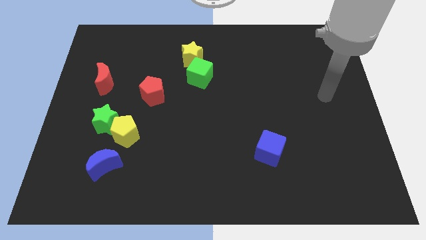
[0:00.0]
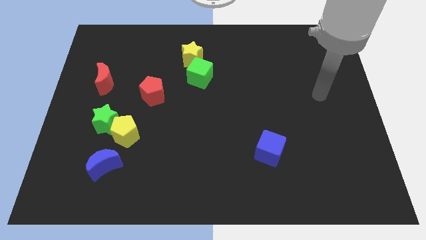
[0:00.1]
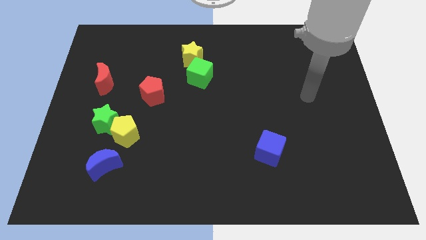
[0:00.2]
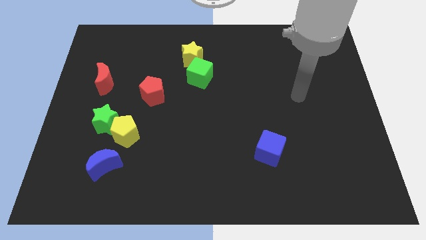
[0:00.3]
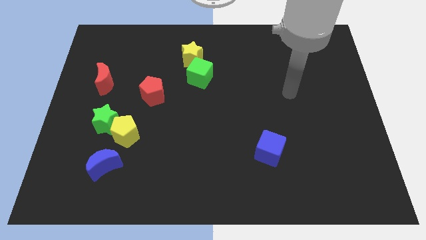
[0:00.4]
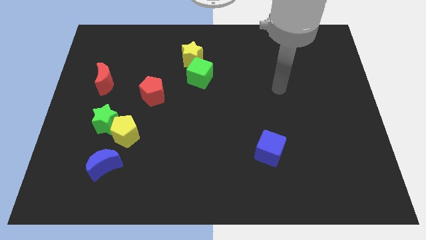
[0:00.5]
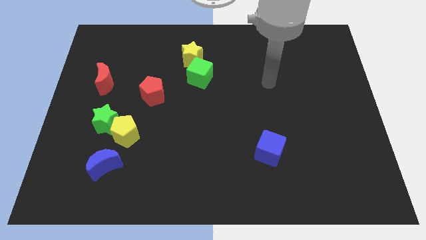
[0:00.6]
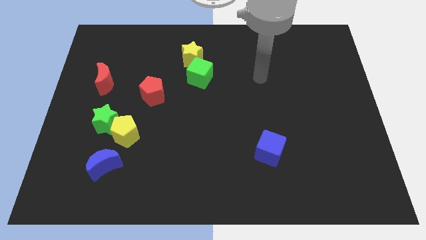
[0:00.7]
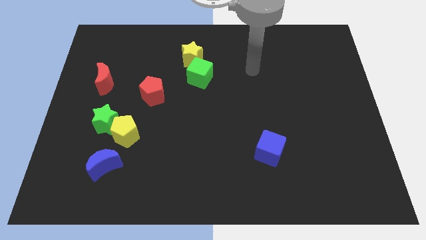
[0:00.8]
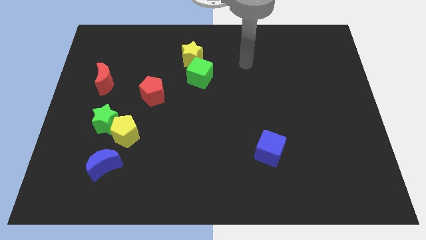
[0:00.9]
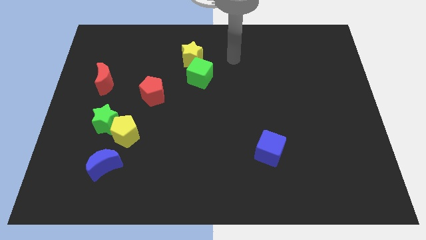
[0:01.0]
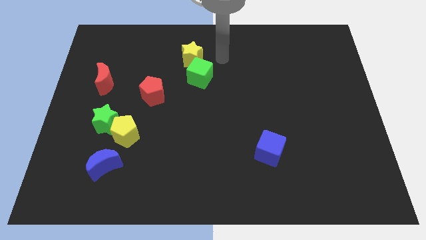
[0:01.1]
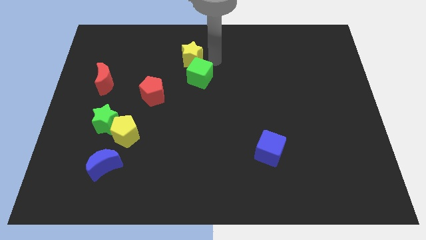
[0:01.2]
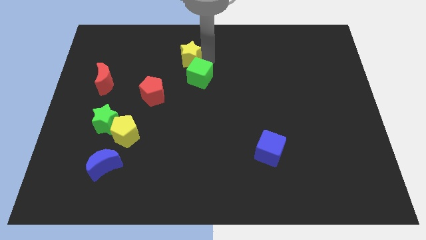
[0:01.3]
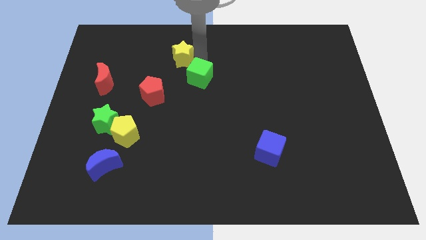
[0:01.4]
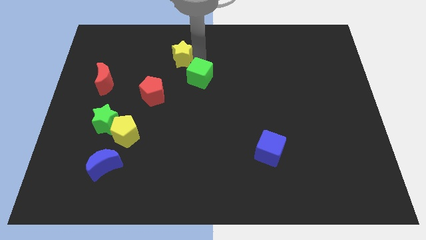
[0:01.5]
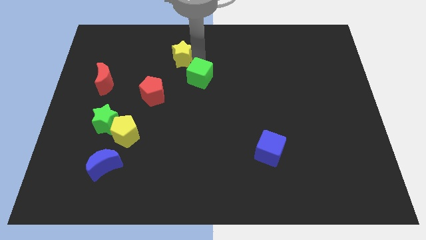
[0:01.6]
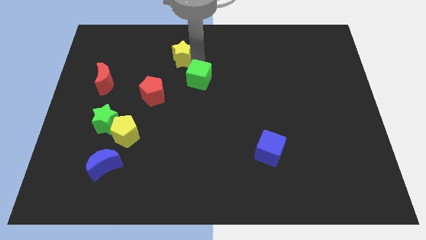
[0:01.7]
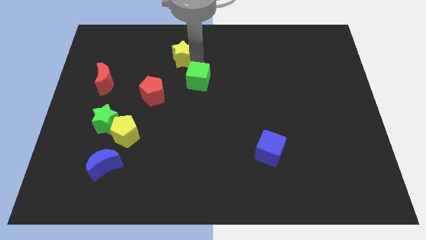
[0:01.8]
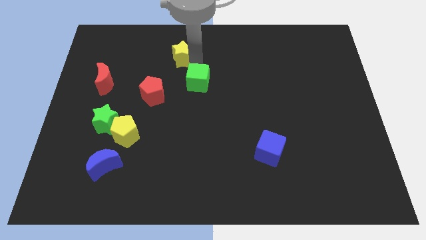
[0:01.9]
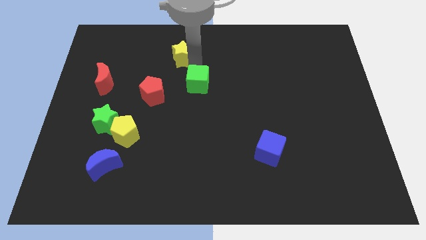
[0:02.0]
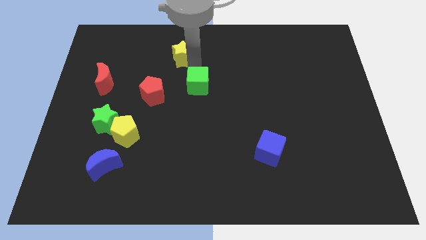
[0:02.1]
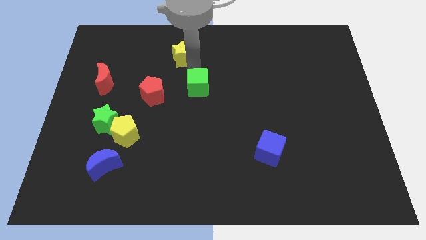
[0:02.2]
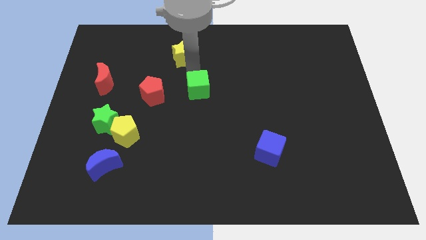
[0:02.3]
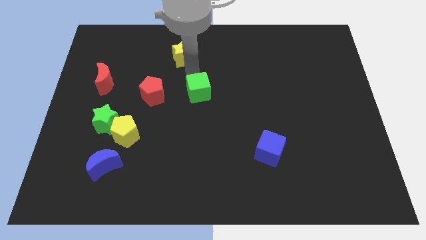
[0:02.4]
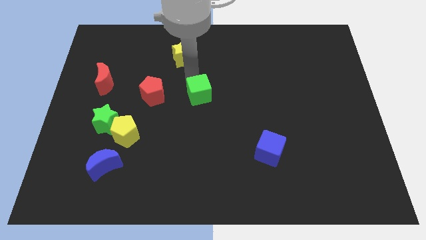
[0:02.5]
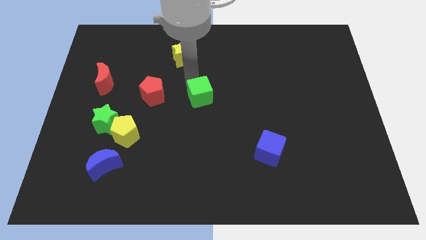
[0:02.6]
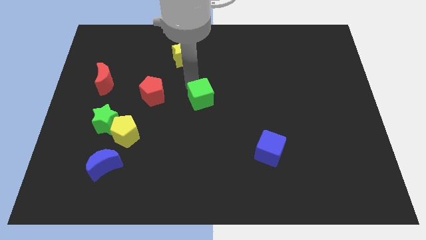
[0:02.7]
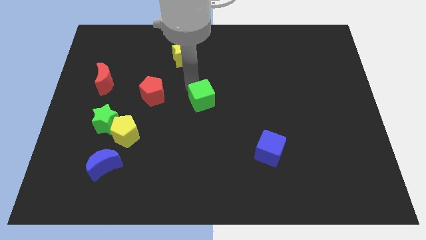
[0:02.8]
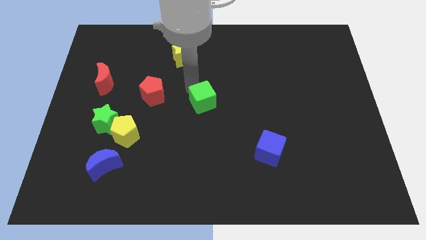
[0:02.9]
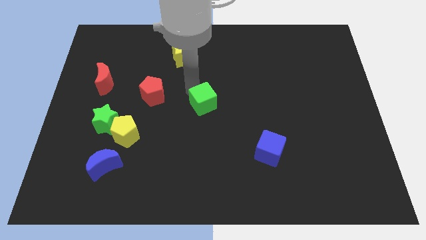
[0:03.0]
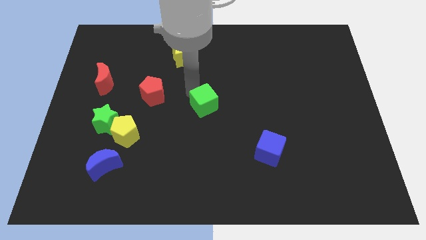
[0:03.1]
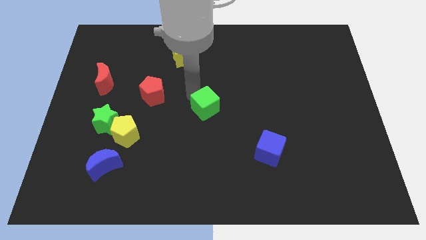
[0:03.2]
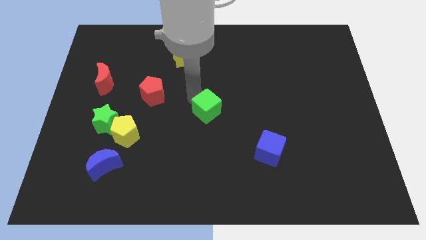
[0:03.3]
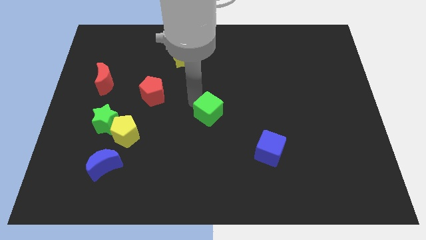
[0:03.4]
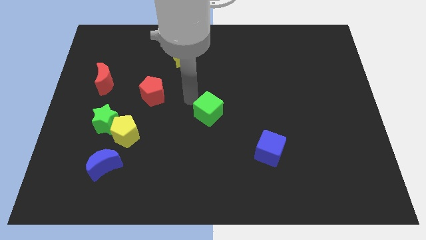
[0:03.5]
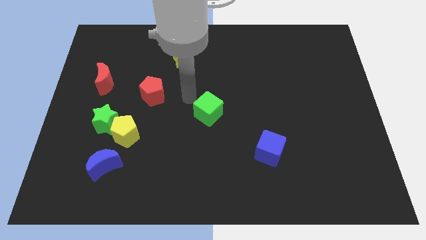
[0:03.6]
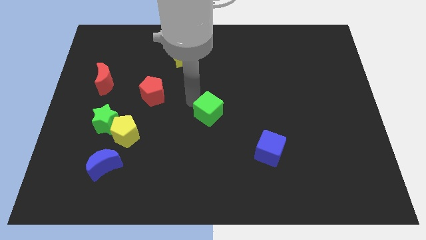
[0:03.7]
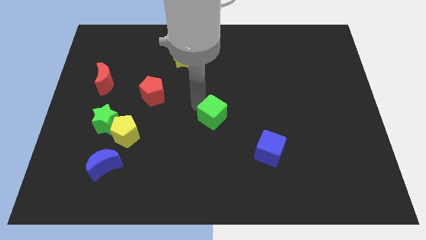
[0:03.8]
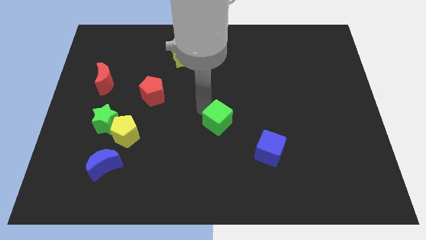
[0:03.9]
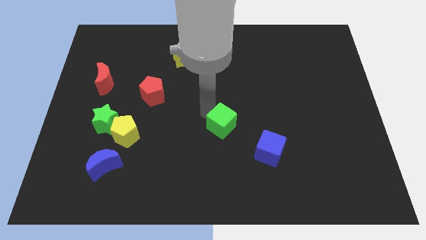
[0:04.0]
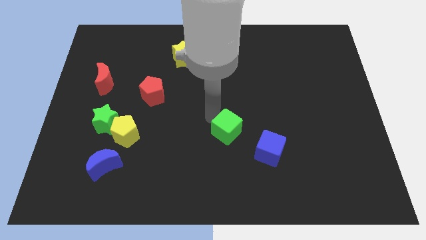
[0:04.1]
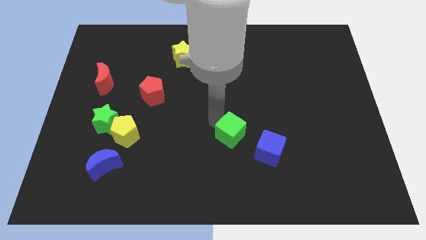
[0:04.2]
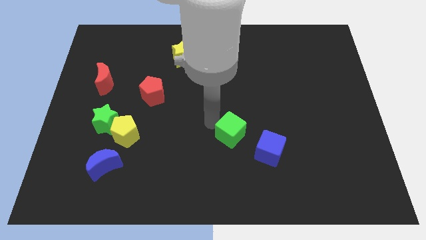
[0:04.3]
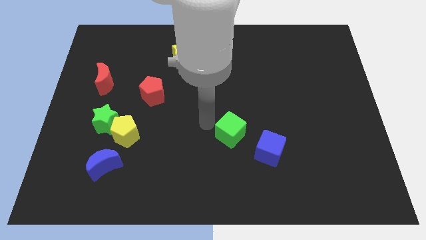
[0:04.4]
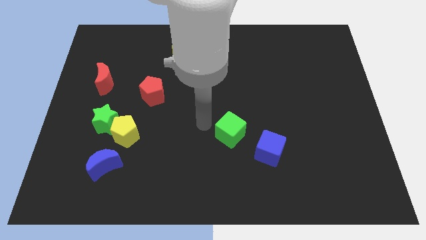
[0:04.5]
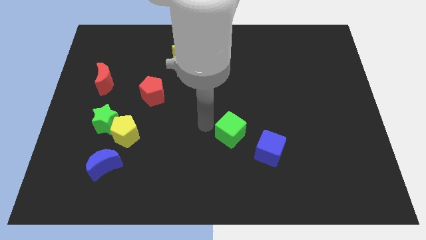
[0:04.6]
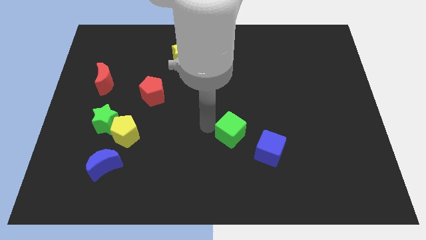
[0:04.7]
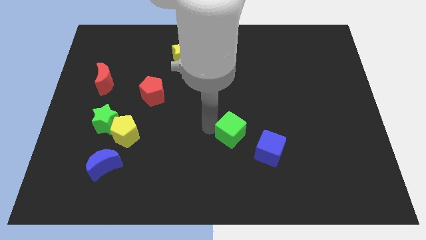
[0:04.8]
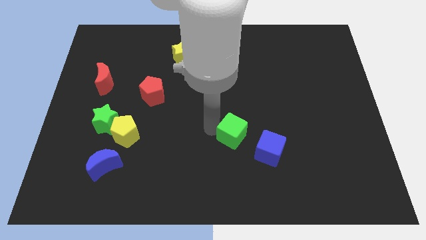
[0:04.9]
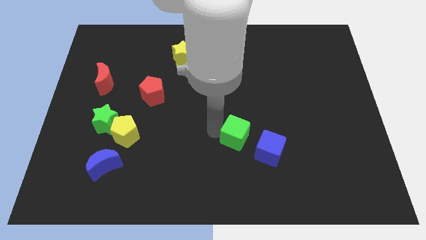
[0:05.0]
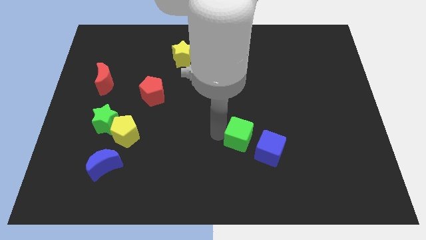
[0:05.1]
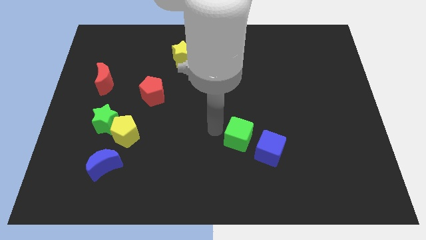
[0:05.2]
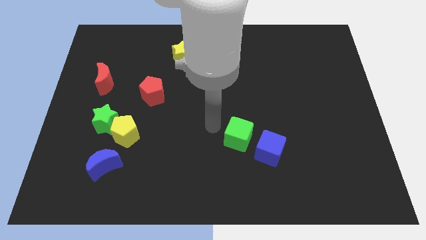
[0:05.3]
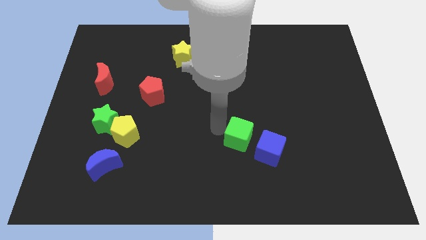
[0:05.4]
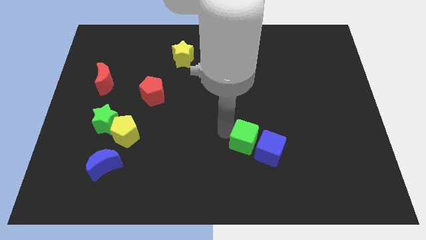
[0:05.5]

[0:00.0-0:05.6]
put the green cube to the blue cube
